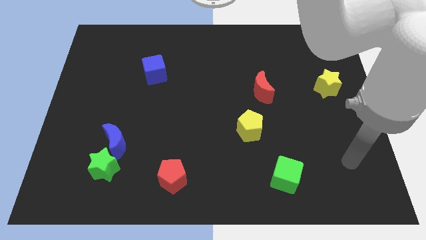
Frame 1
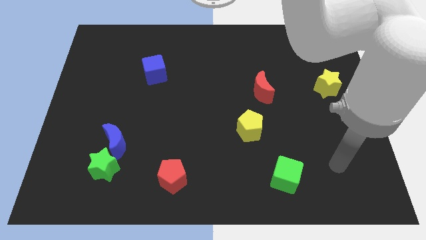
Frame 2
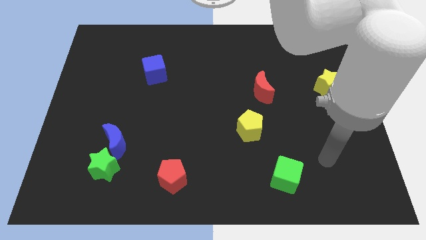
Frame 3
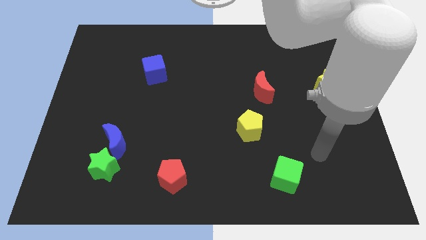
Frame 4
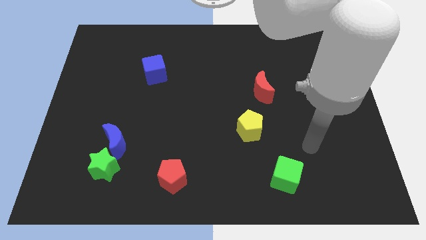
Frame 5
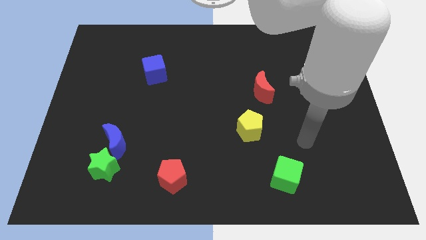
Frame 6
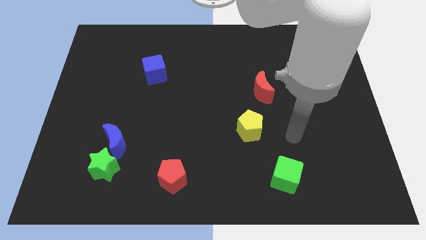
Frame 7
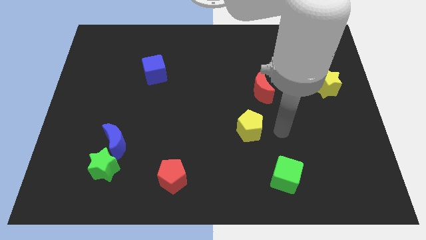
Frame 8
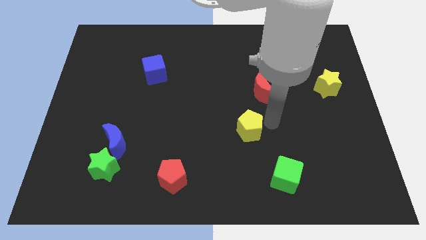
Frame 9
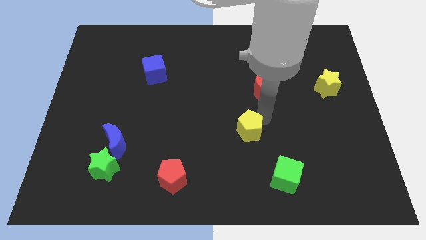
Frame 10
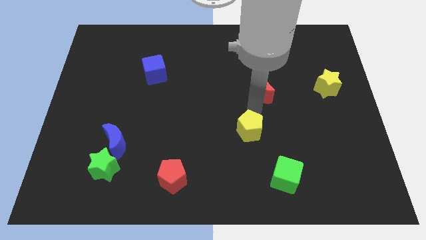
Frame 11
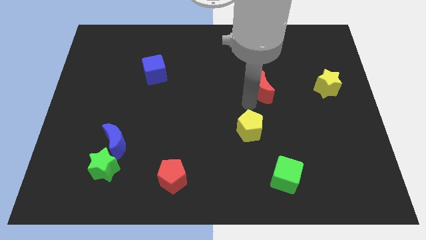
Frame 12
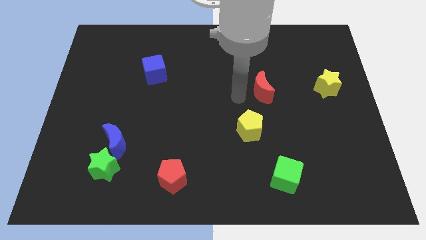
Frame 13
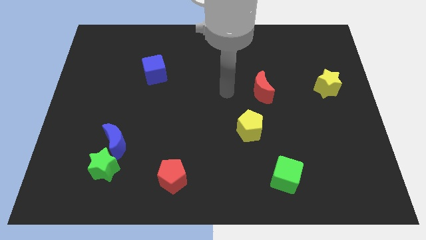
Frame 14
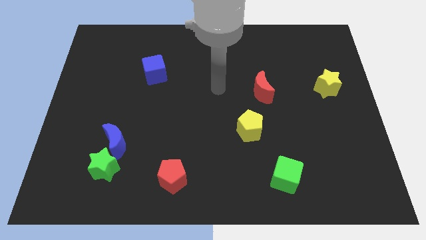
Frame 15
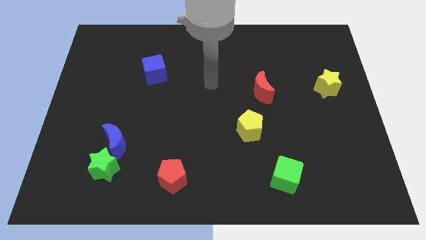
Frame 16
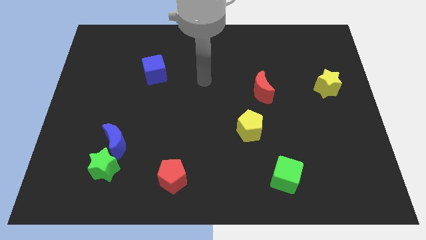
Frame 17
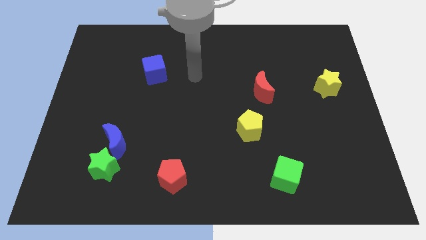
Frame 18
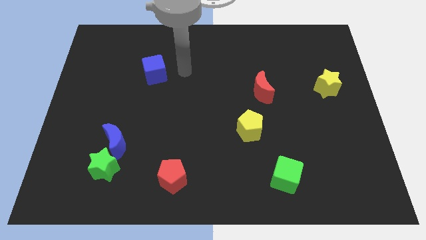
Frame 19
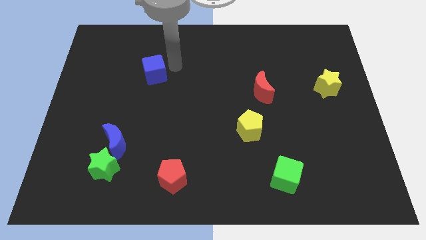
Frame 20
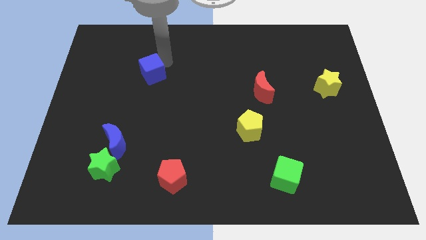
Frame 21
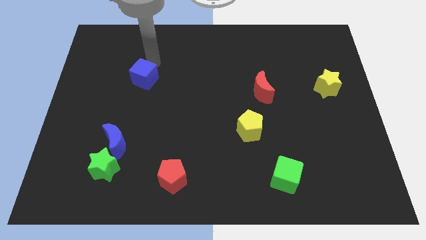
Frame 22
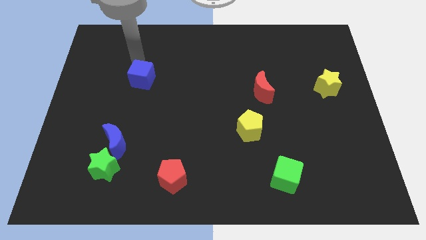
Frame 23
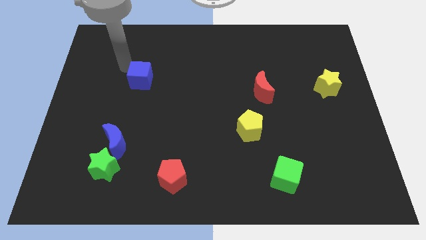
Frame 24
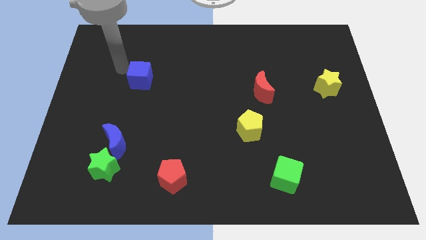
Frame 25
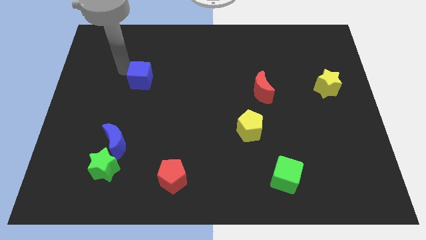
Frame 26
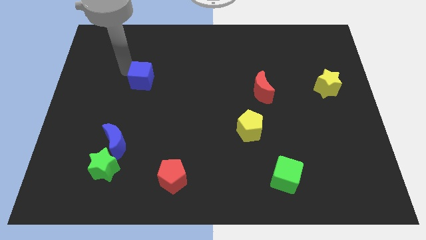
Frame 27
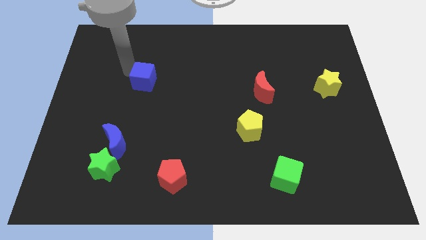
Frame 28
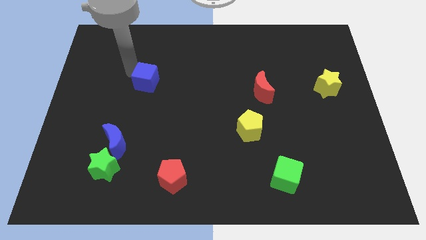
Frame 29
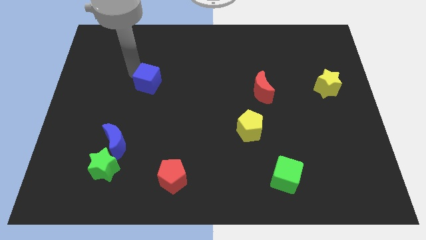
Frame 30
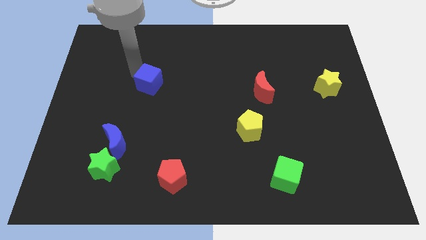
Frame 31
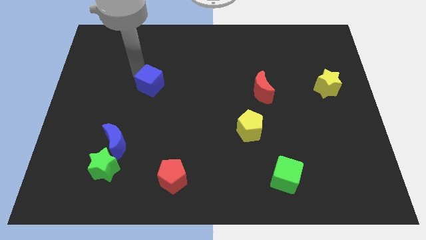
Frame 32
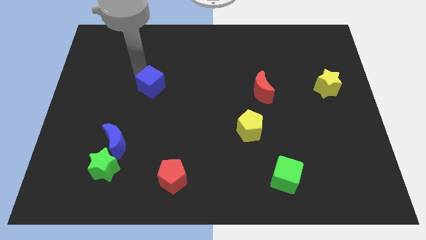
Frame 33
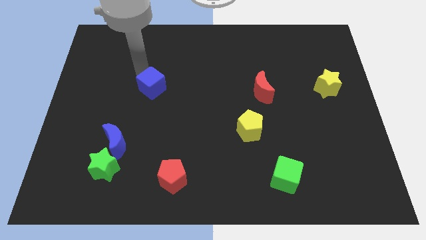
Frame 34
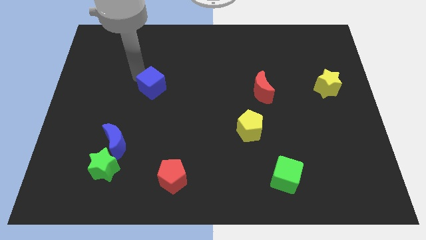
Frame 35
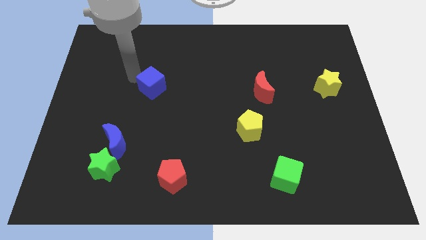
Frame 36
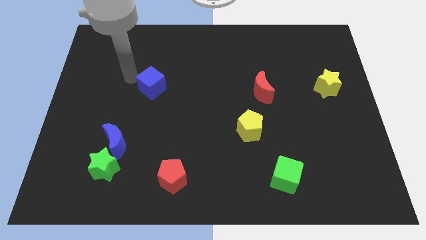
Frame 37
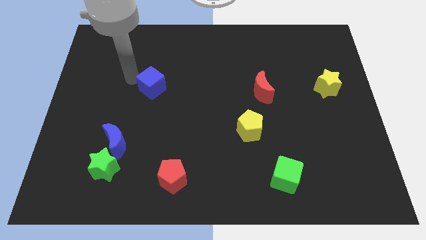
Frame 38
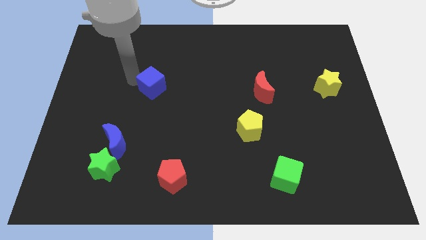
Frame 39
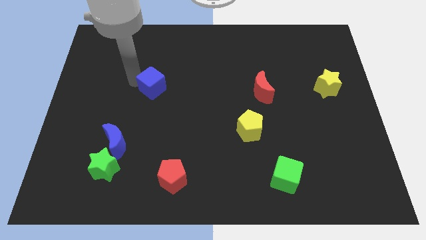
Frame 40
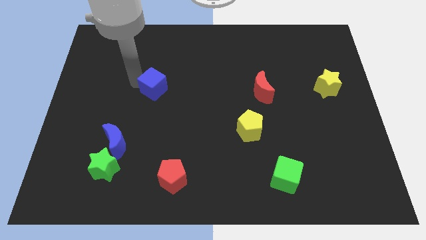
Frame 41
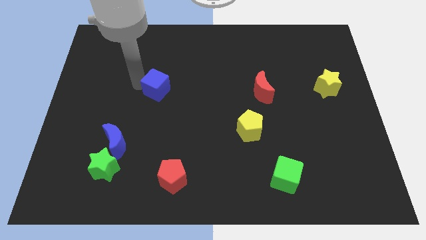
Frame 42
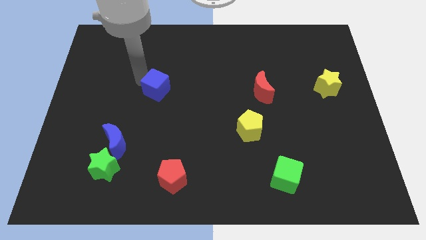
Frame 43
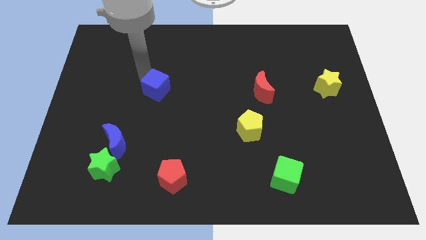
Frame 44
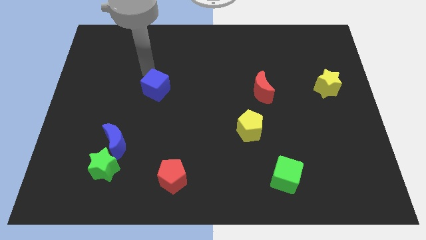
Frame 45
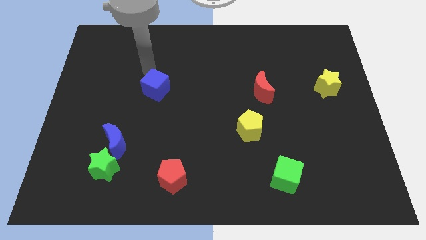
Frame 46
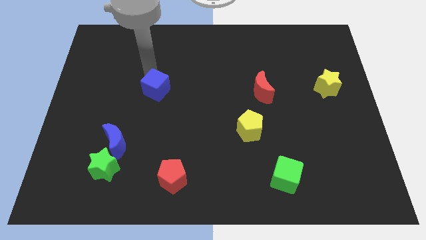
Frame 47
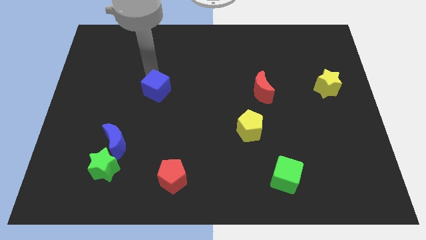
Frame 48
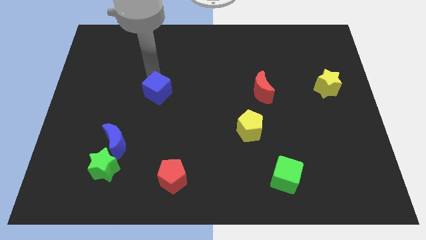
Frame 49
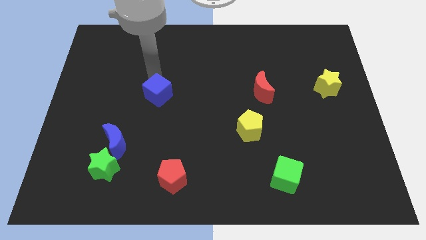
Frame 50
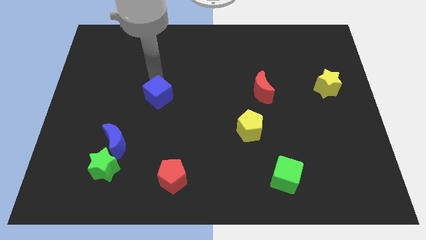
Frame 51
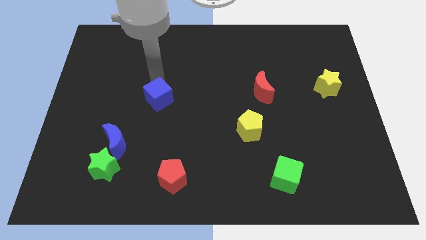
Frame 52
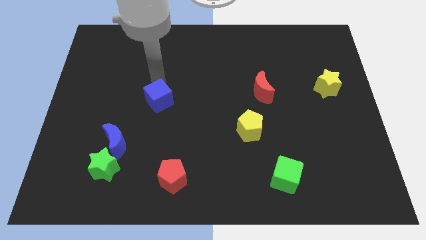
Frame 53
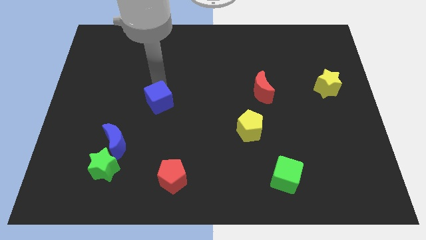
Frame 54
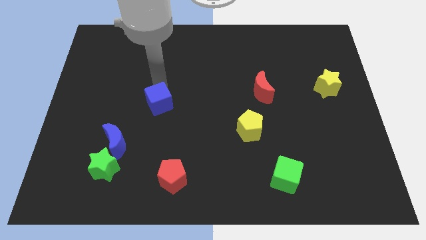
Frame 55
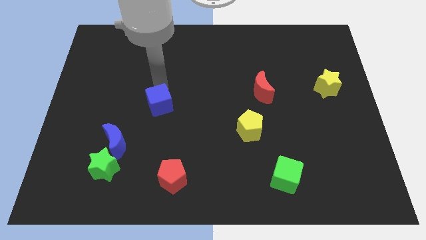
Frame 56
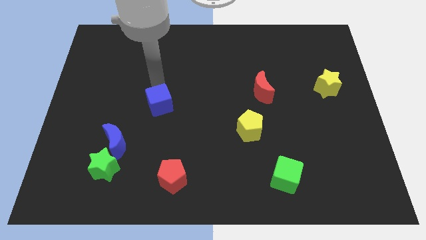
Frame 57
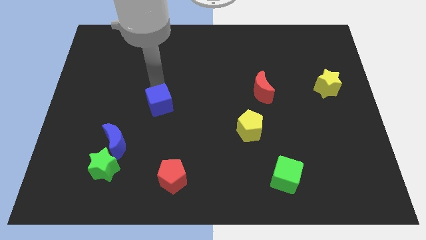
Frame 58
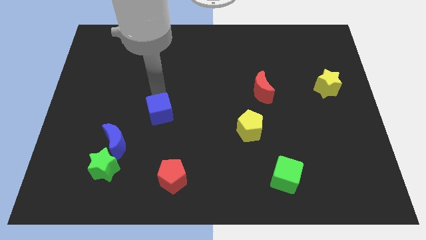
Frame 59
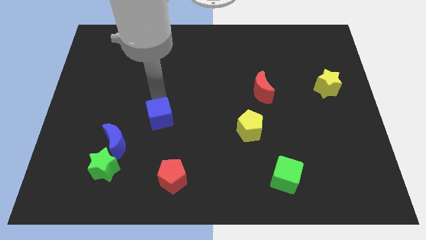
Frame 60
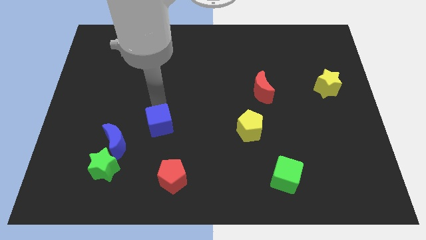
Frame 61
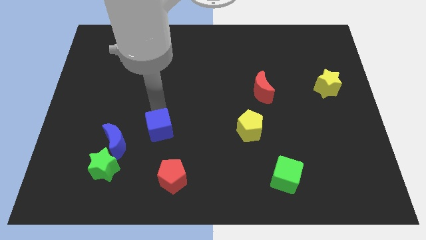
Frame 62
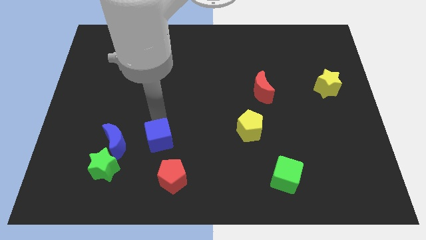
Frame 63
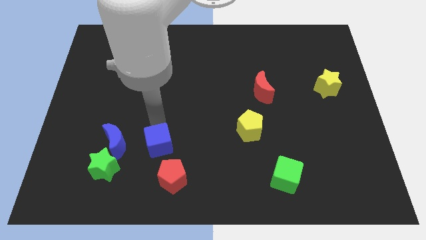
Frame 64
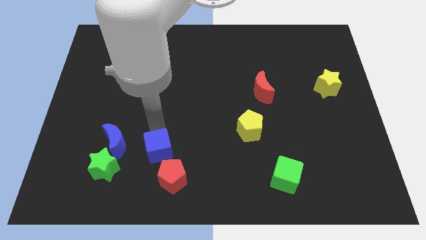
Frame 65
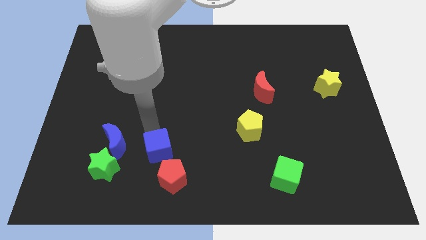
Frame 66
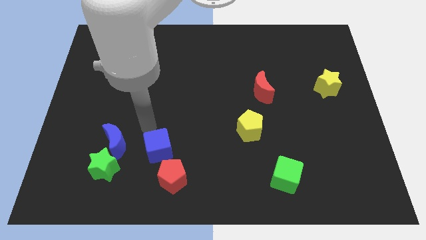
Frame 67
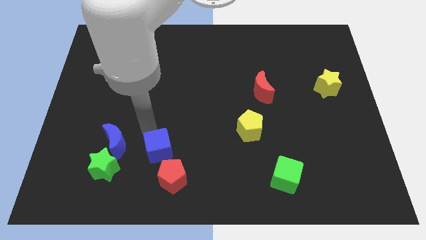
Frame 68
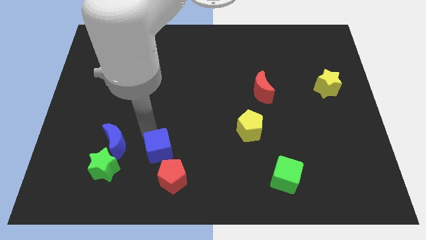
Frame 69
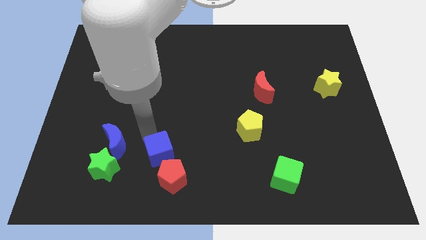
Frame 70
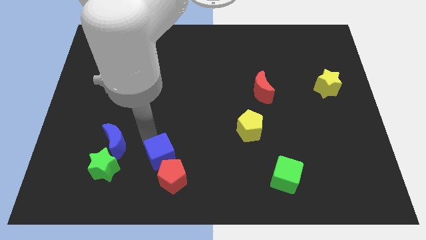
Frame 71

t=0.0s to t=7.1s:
slide the blue cube to the red pentagon

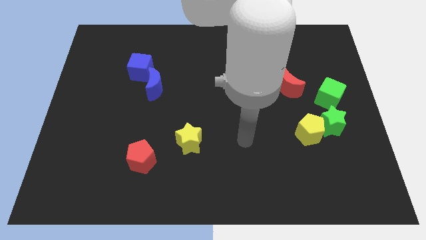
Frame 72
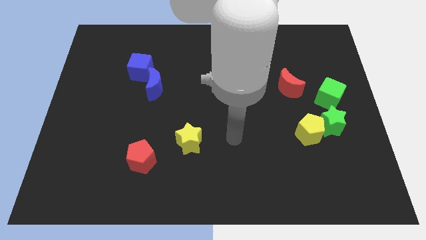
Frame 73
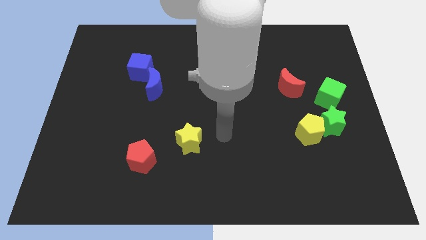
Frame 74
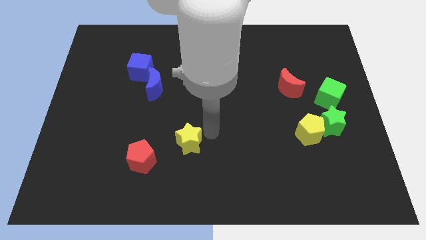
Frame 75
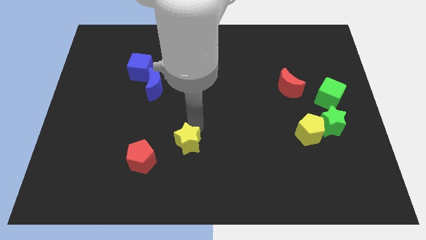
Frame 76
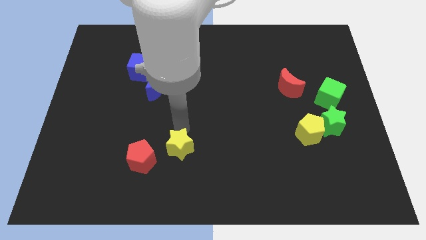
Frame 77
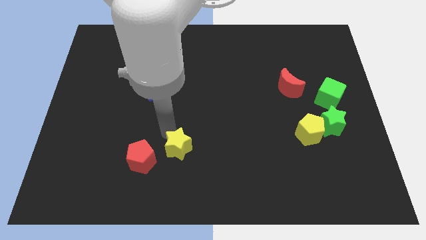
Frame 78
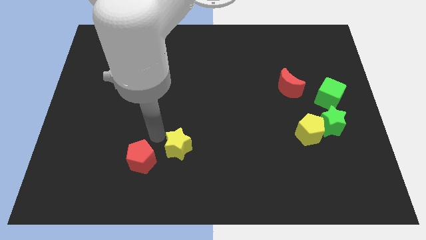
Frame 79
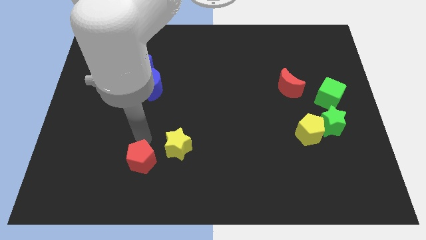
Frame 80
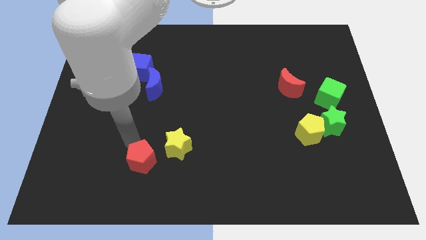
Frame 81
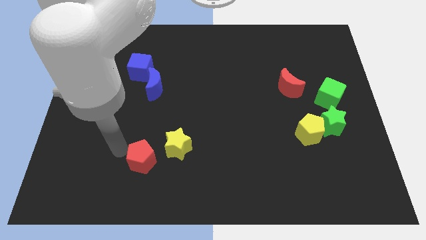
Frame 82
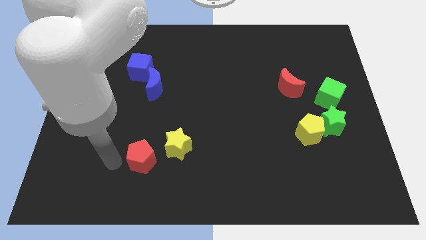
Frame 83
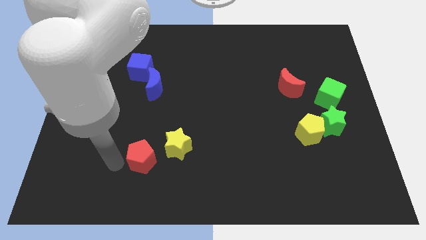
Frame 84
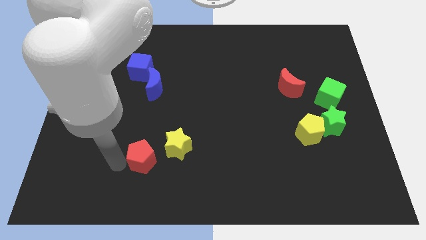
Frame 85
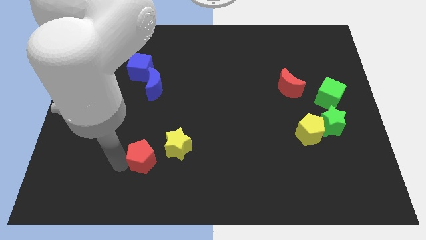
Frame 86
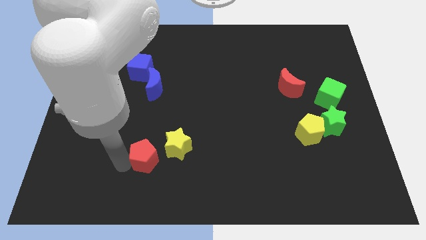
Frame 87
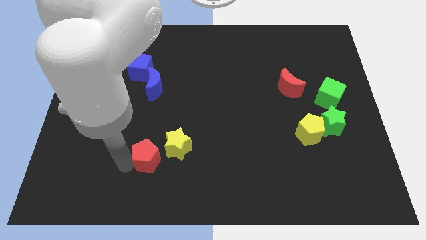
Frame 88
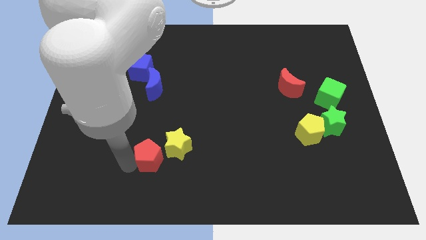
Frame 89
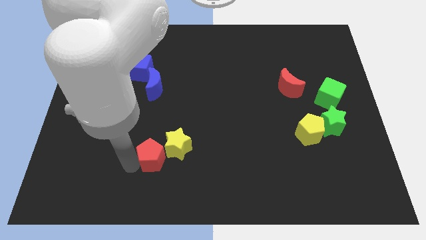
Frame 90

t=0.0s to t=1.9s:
push the red pentagon next to the yellow star
